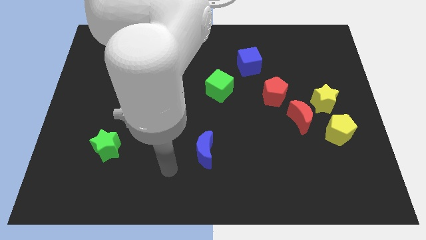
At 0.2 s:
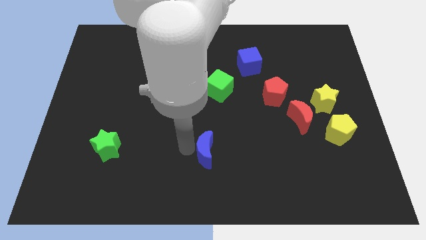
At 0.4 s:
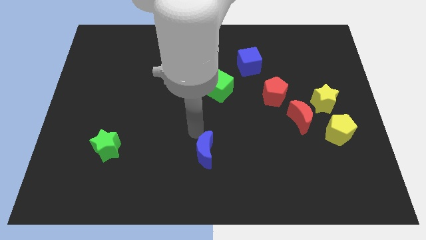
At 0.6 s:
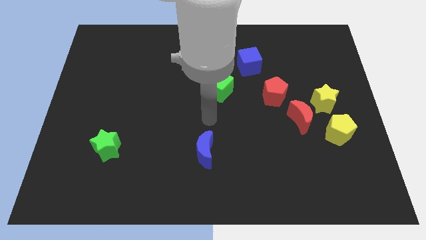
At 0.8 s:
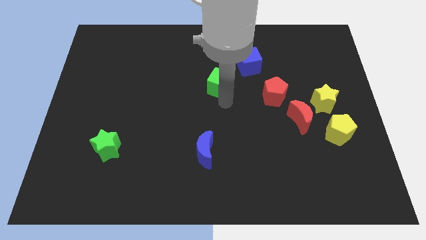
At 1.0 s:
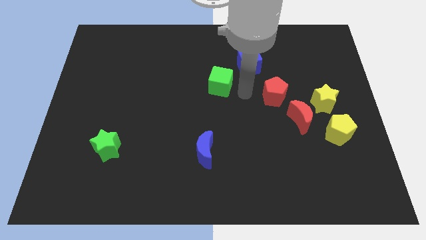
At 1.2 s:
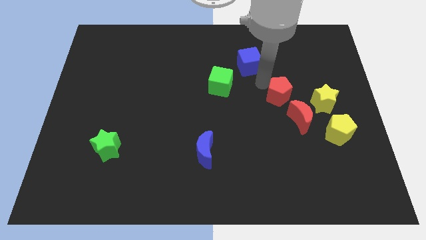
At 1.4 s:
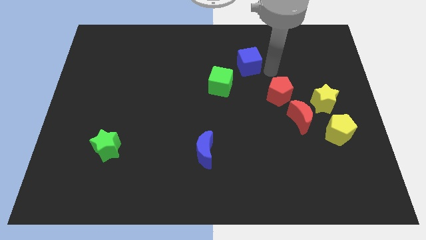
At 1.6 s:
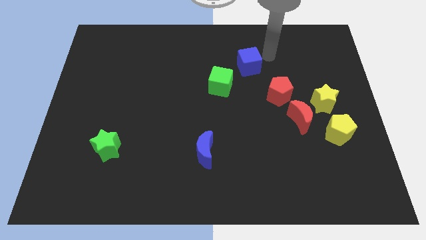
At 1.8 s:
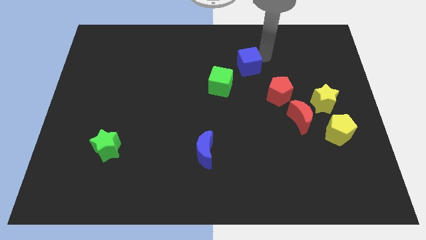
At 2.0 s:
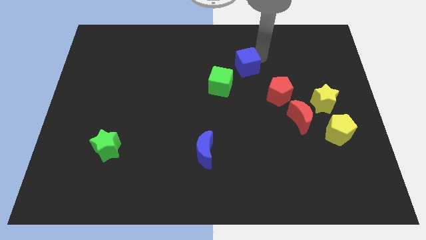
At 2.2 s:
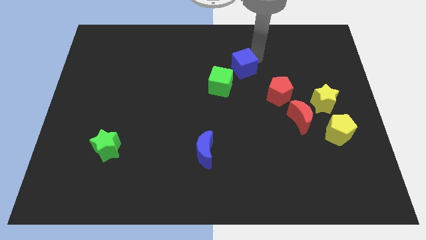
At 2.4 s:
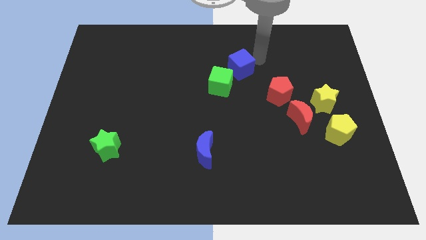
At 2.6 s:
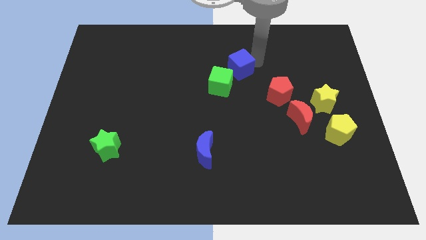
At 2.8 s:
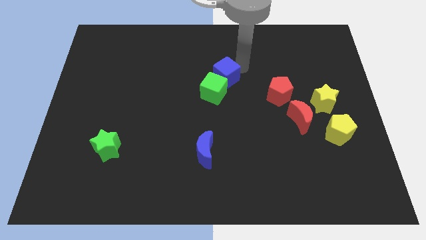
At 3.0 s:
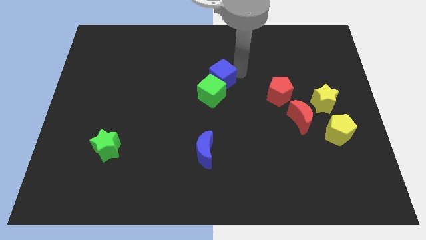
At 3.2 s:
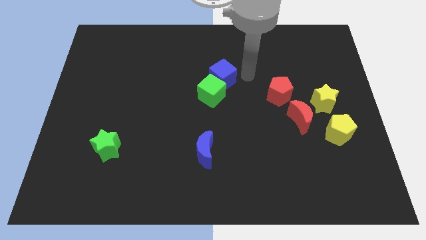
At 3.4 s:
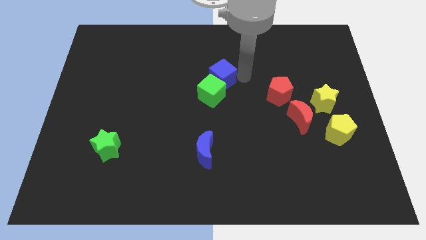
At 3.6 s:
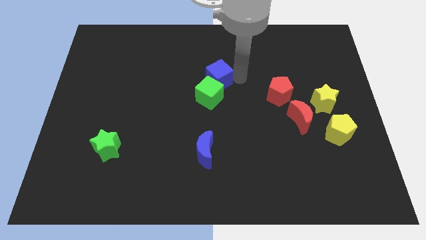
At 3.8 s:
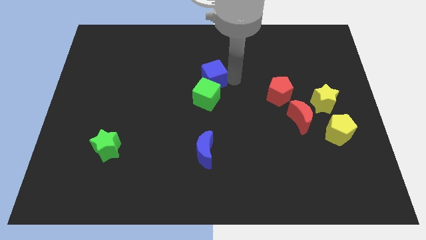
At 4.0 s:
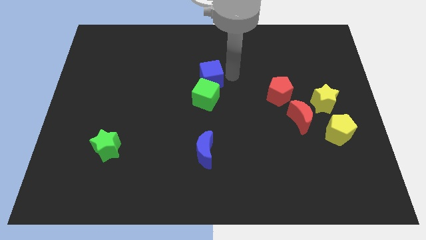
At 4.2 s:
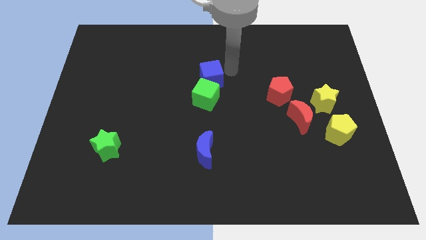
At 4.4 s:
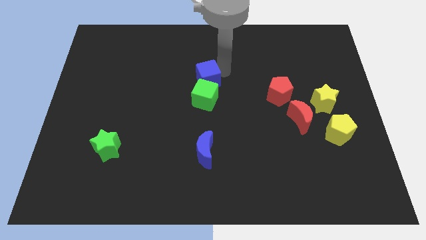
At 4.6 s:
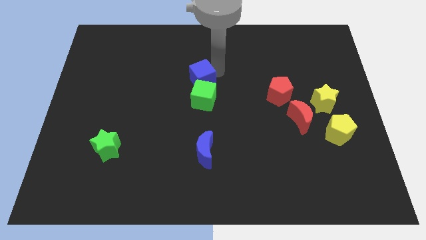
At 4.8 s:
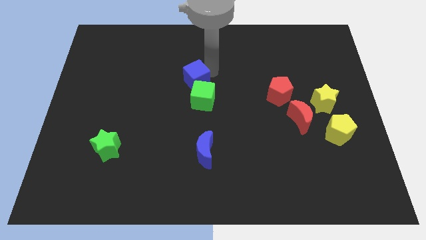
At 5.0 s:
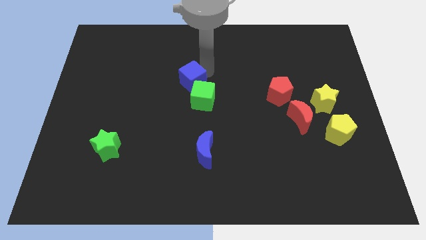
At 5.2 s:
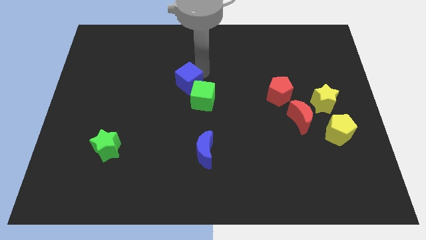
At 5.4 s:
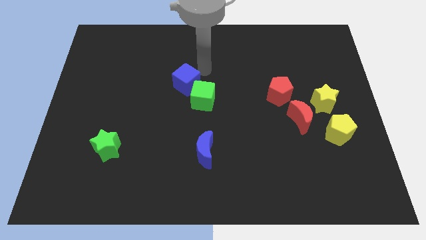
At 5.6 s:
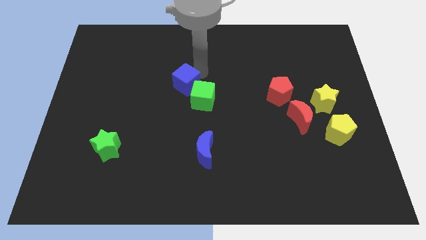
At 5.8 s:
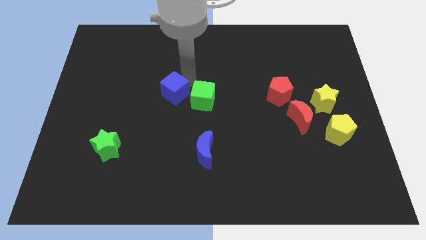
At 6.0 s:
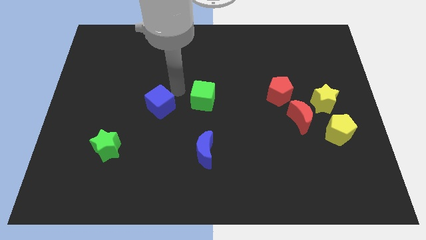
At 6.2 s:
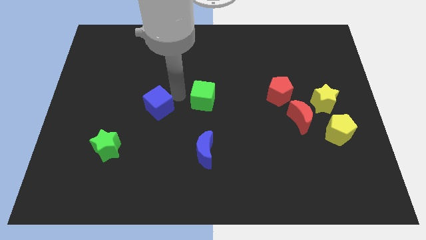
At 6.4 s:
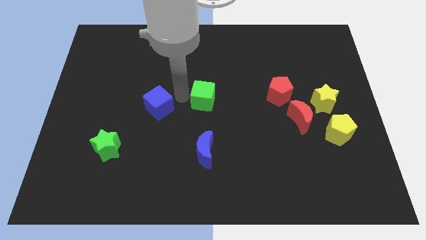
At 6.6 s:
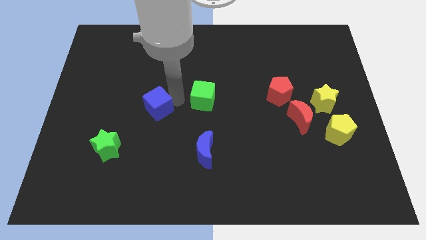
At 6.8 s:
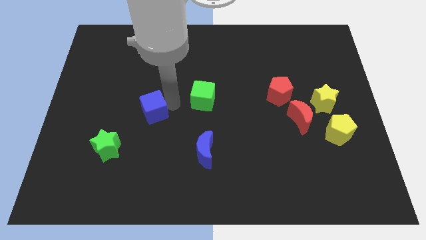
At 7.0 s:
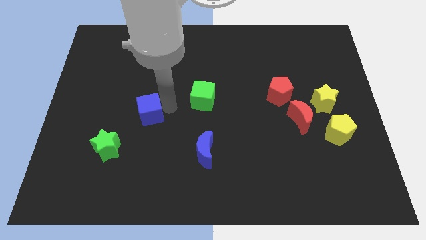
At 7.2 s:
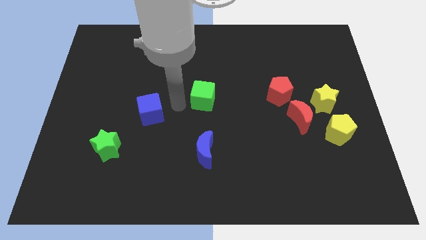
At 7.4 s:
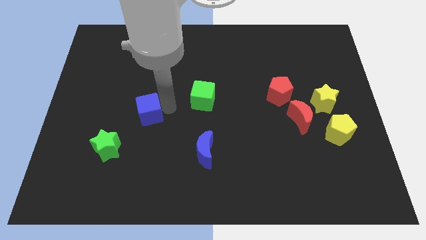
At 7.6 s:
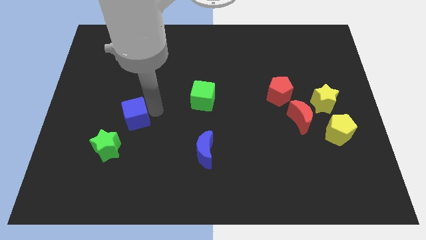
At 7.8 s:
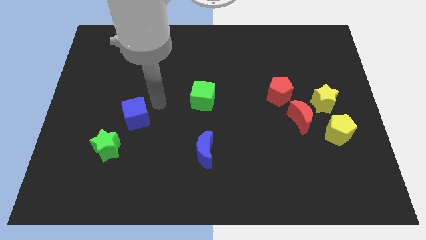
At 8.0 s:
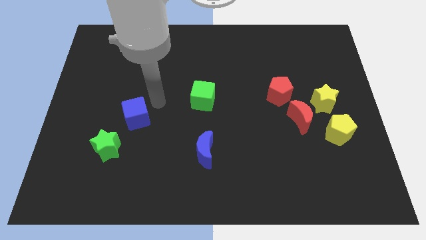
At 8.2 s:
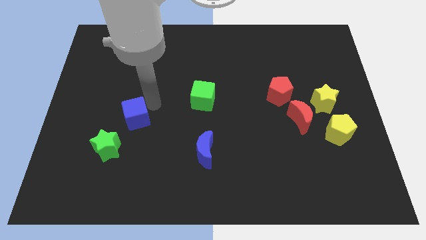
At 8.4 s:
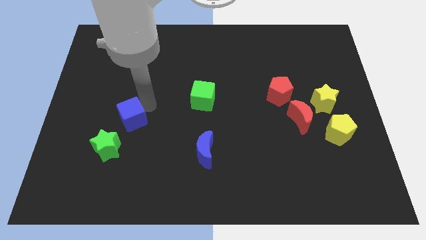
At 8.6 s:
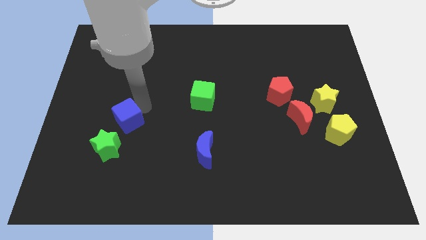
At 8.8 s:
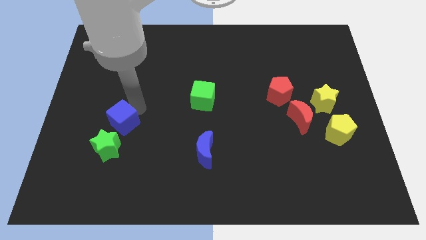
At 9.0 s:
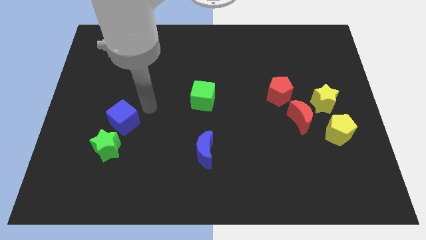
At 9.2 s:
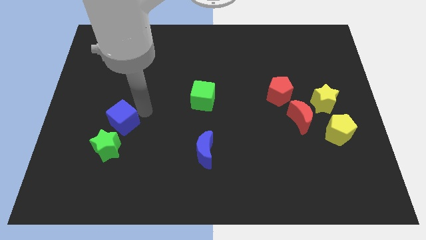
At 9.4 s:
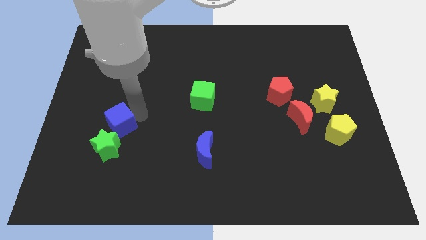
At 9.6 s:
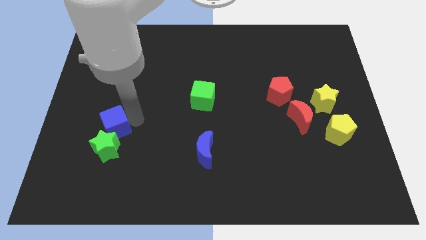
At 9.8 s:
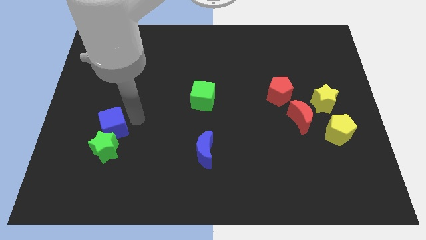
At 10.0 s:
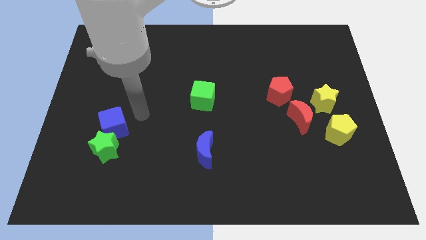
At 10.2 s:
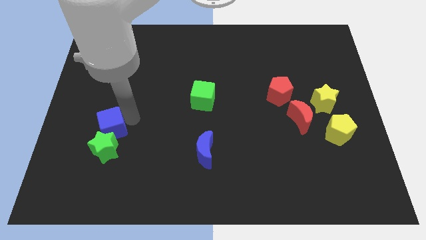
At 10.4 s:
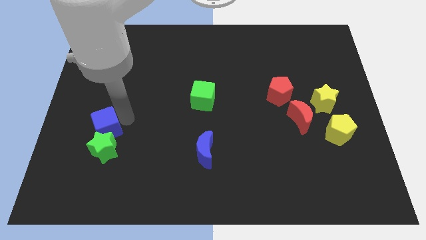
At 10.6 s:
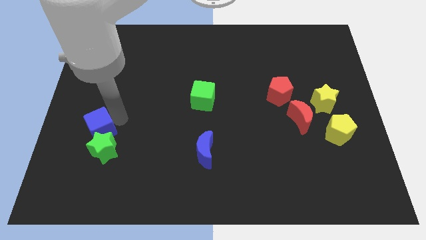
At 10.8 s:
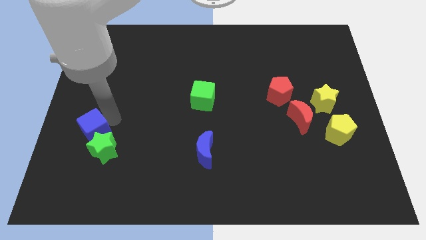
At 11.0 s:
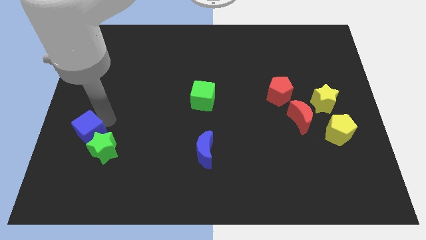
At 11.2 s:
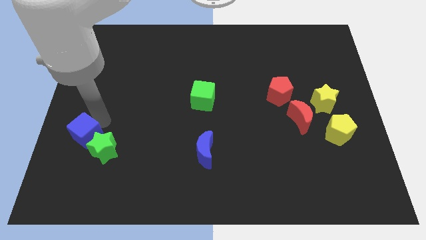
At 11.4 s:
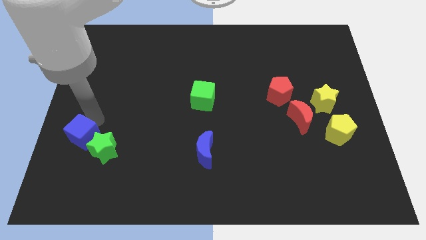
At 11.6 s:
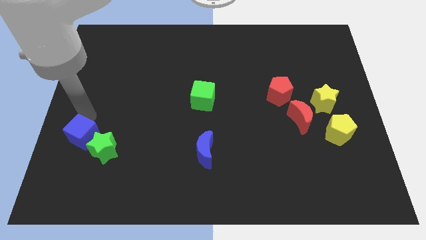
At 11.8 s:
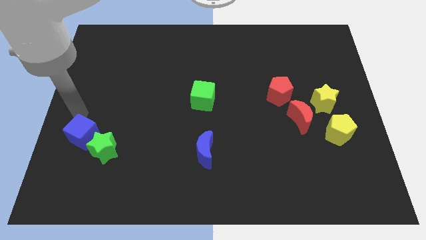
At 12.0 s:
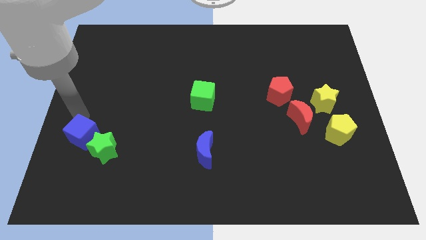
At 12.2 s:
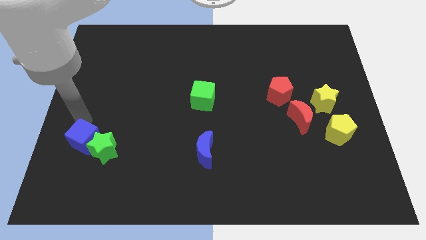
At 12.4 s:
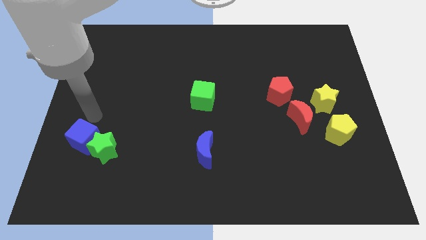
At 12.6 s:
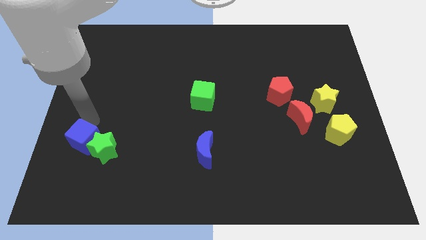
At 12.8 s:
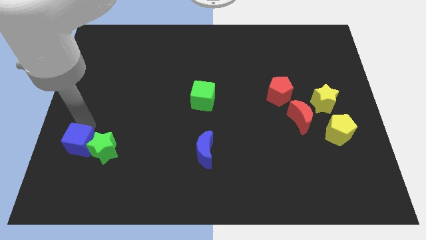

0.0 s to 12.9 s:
slide the blue cube diagonally down and to the left of the green star
